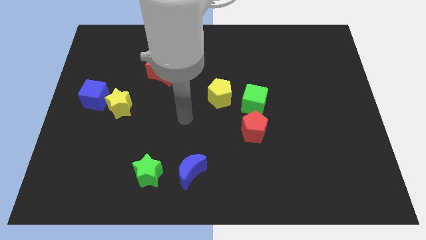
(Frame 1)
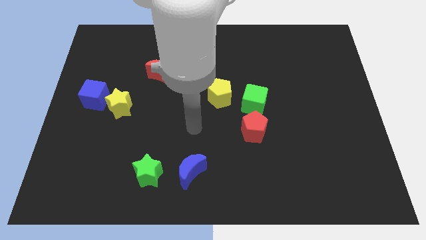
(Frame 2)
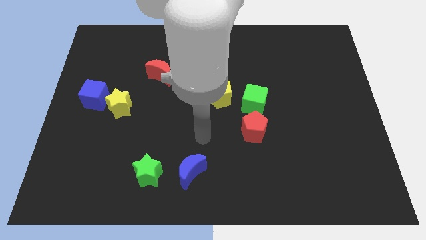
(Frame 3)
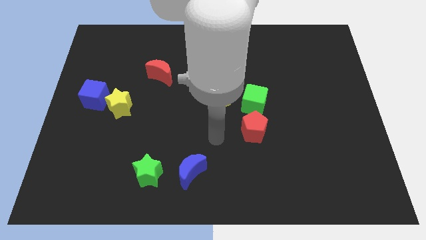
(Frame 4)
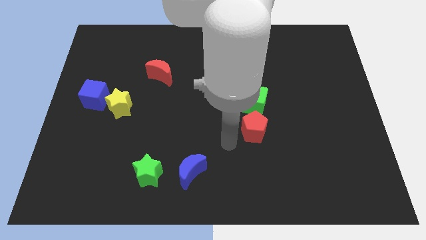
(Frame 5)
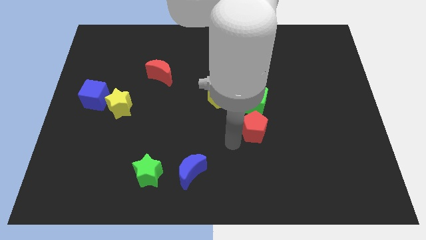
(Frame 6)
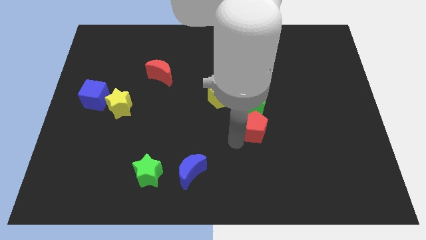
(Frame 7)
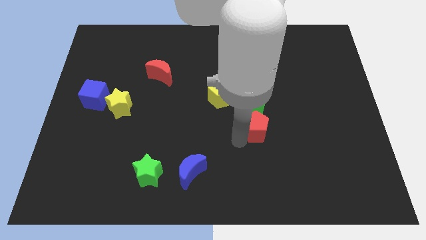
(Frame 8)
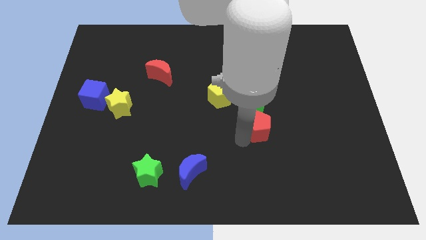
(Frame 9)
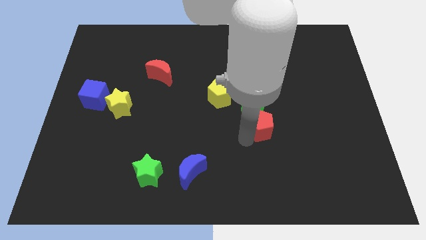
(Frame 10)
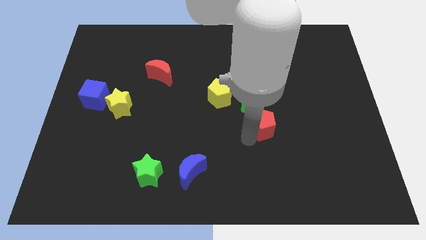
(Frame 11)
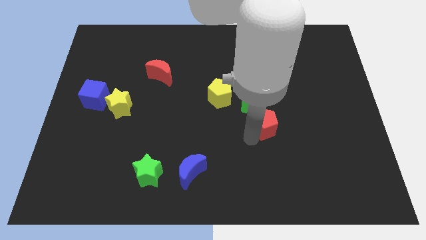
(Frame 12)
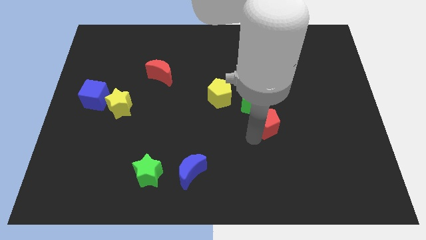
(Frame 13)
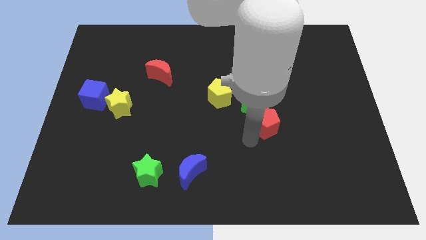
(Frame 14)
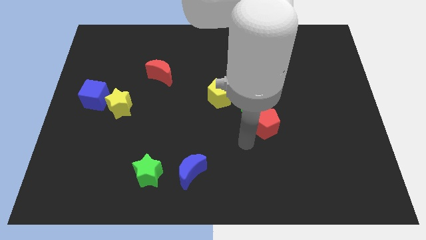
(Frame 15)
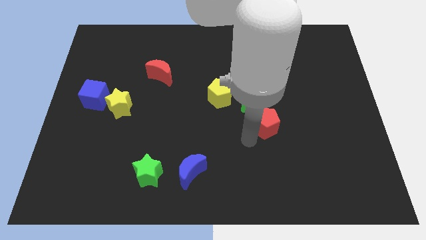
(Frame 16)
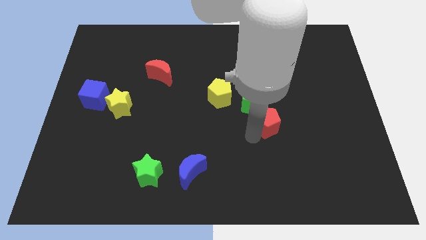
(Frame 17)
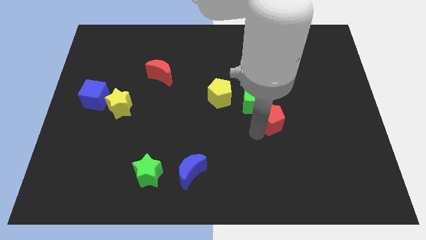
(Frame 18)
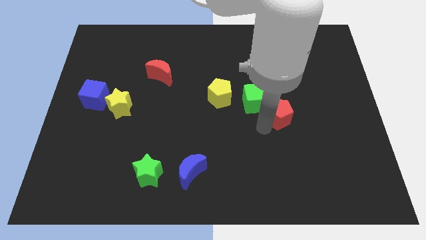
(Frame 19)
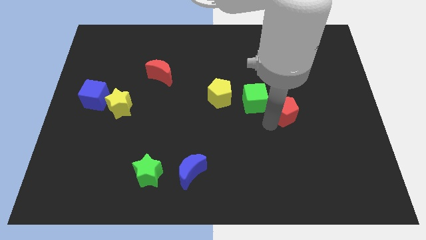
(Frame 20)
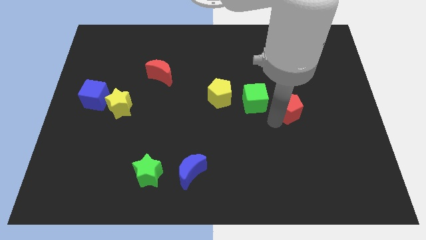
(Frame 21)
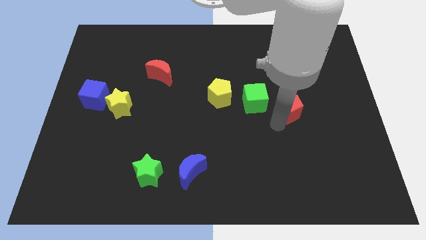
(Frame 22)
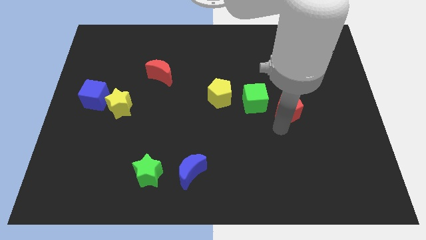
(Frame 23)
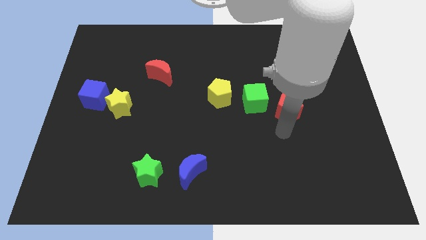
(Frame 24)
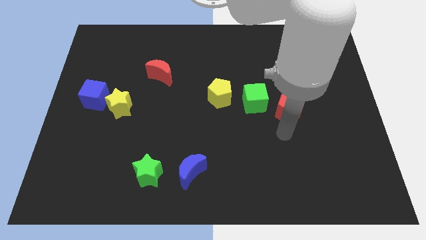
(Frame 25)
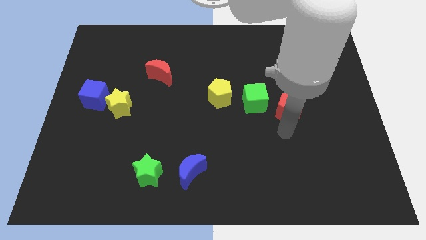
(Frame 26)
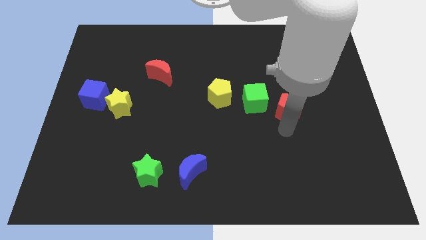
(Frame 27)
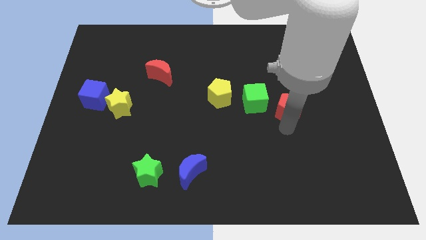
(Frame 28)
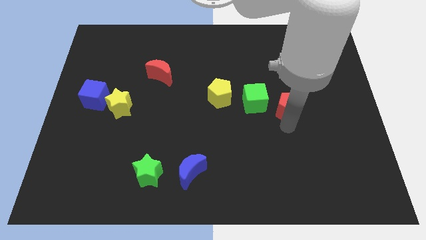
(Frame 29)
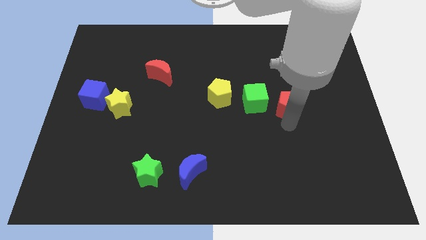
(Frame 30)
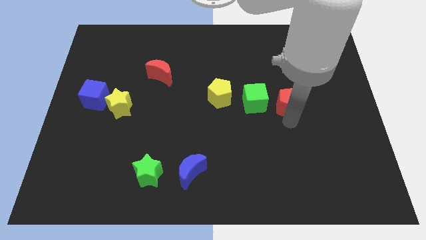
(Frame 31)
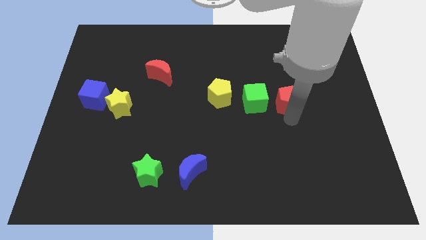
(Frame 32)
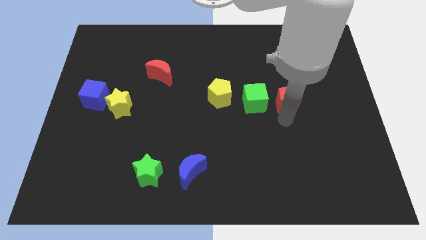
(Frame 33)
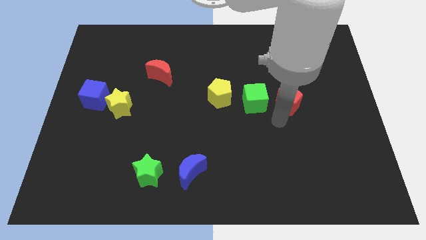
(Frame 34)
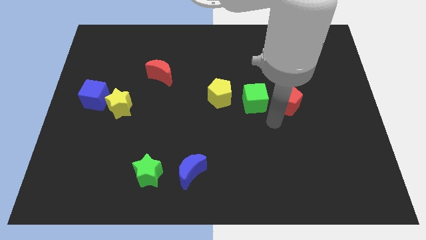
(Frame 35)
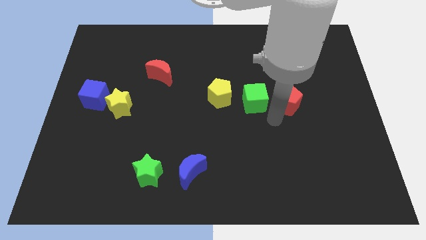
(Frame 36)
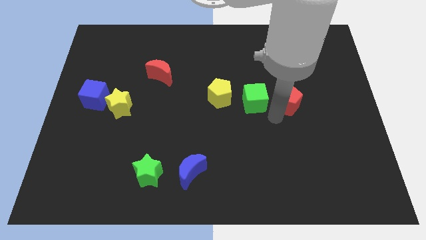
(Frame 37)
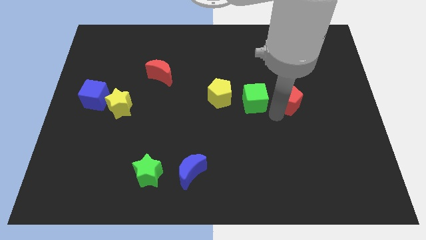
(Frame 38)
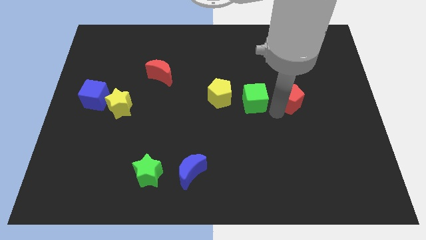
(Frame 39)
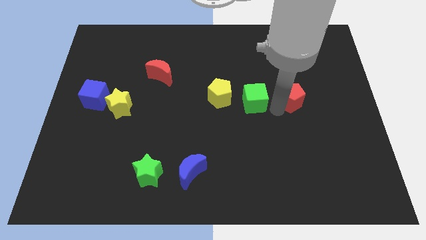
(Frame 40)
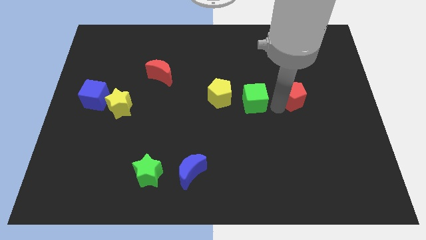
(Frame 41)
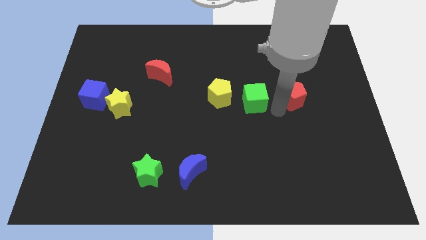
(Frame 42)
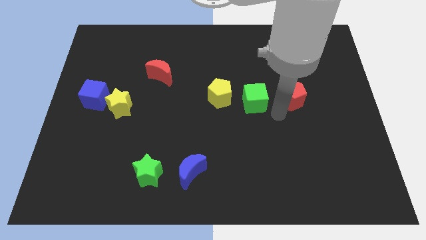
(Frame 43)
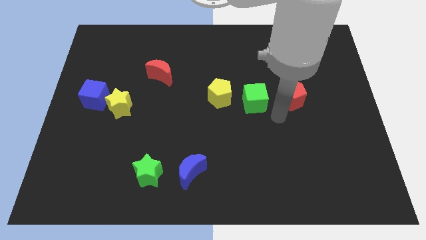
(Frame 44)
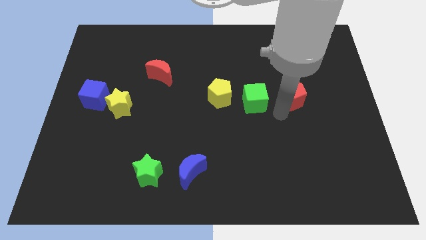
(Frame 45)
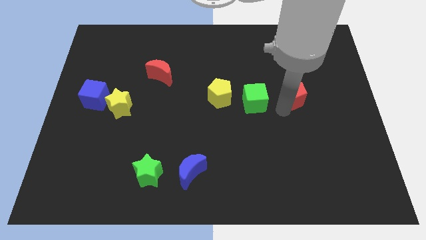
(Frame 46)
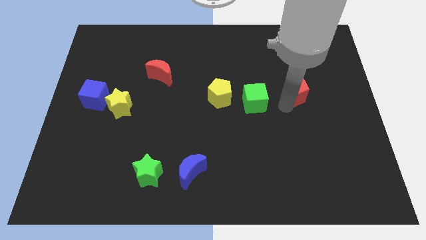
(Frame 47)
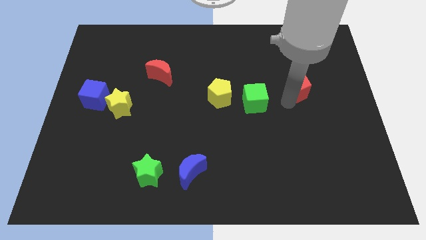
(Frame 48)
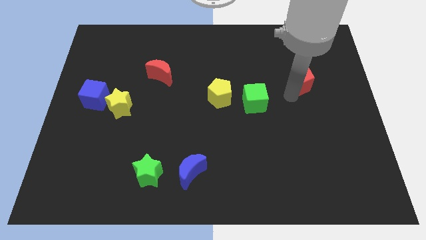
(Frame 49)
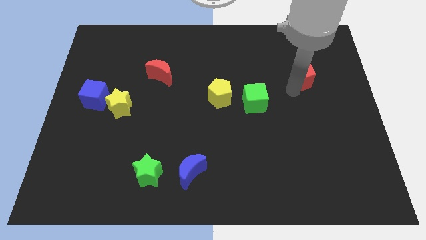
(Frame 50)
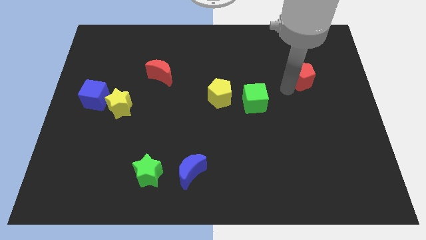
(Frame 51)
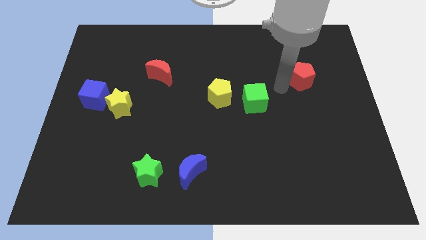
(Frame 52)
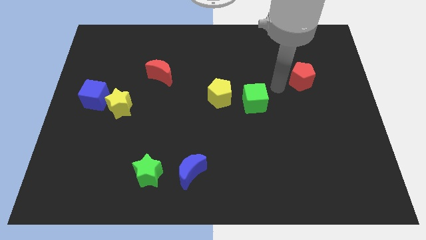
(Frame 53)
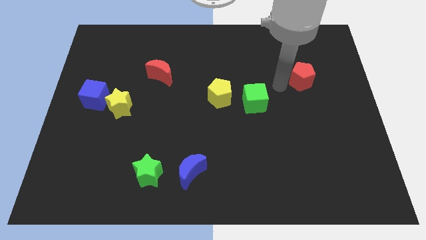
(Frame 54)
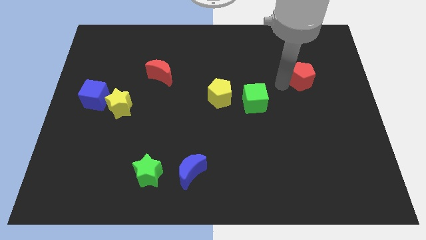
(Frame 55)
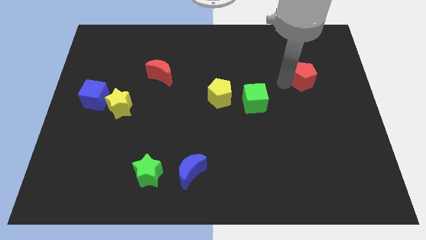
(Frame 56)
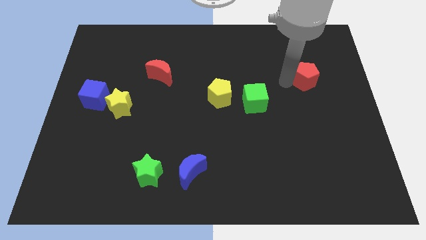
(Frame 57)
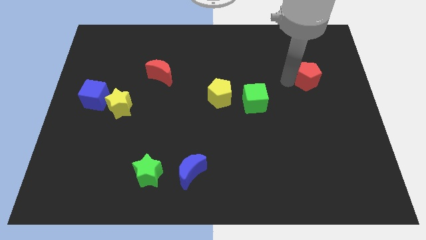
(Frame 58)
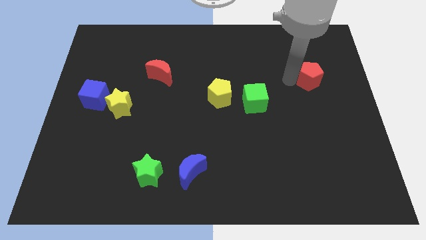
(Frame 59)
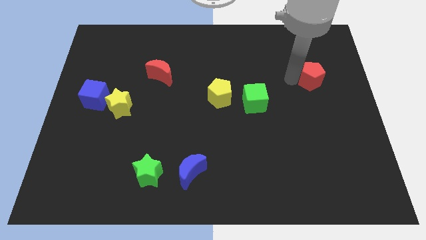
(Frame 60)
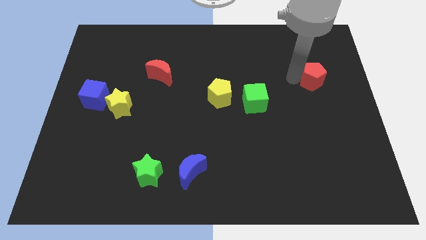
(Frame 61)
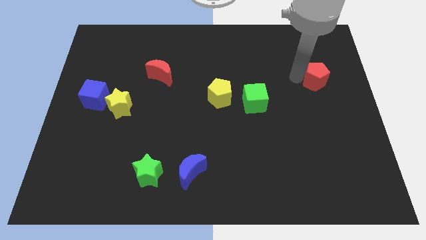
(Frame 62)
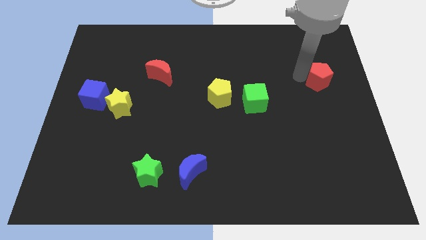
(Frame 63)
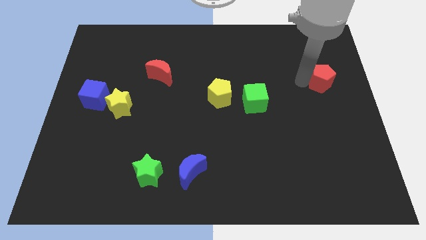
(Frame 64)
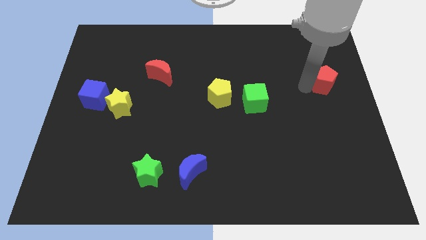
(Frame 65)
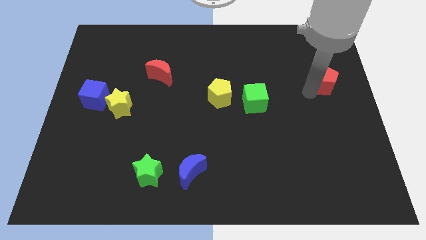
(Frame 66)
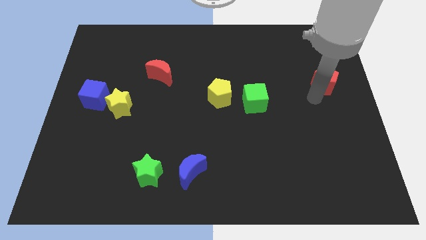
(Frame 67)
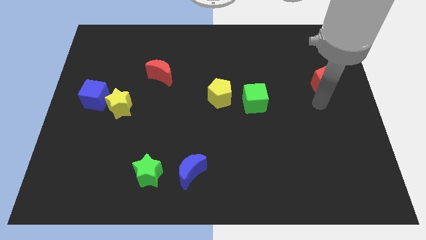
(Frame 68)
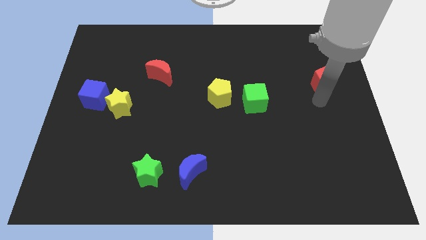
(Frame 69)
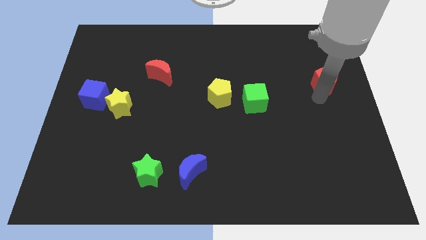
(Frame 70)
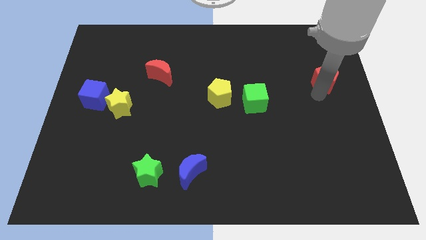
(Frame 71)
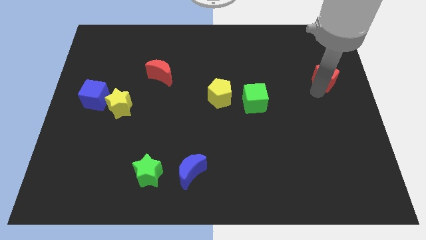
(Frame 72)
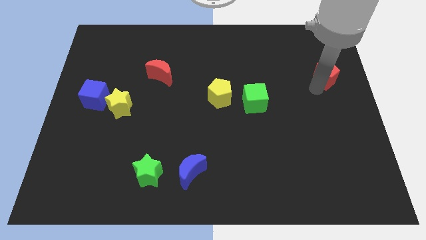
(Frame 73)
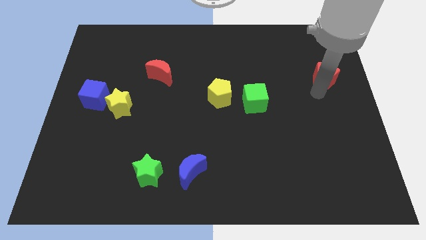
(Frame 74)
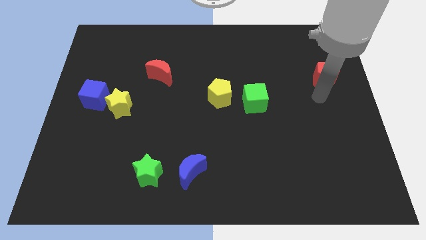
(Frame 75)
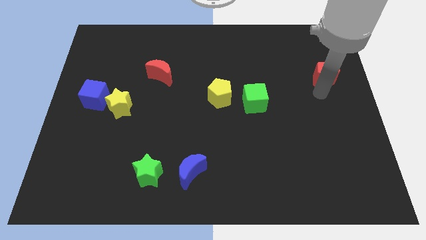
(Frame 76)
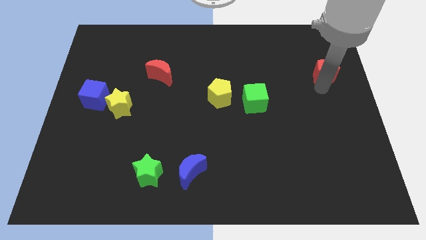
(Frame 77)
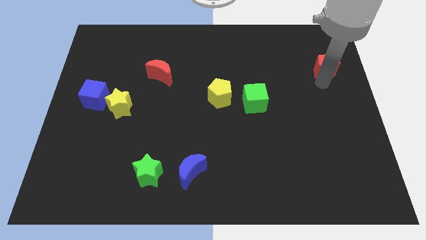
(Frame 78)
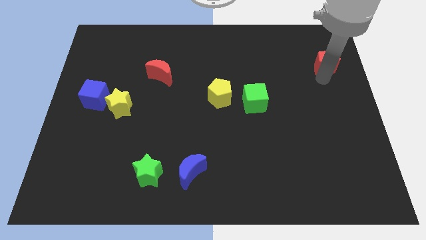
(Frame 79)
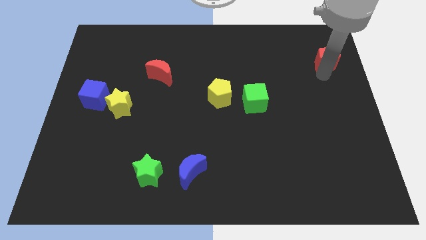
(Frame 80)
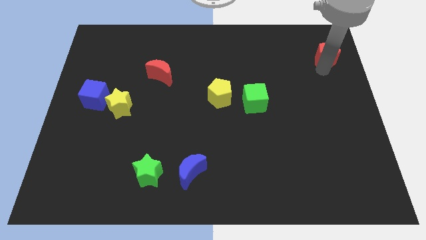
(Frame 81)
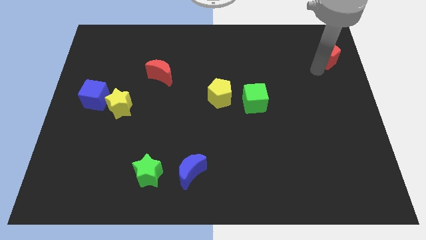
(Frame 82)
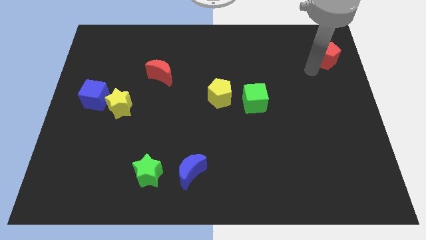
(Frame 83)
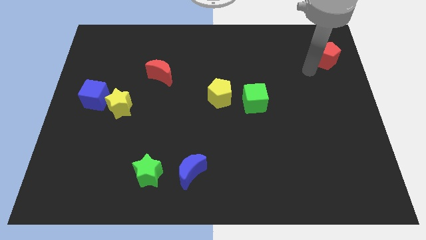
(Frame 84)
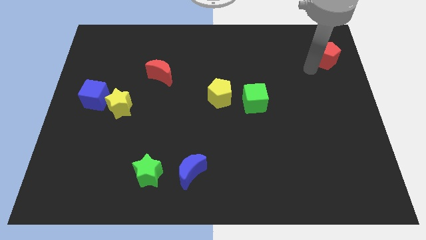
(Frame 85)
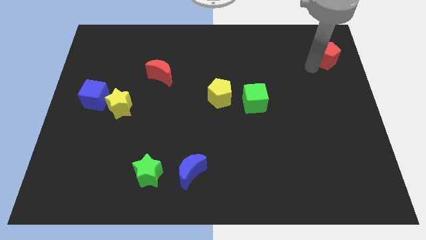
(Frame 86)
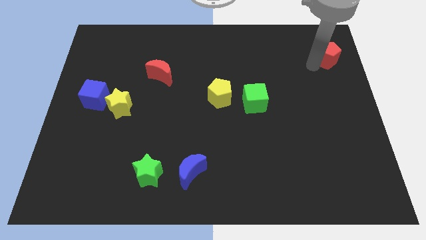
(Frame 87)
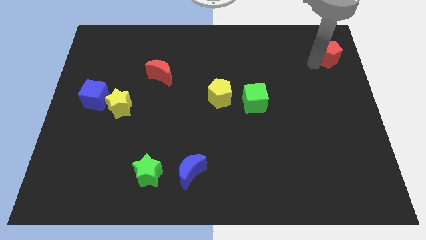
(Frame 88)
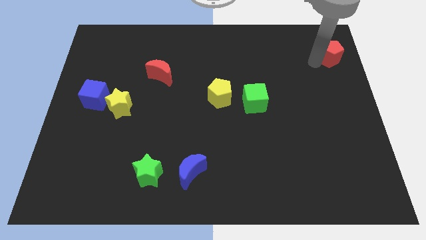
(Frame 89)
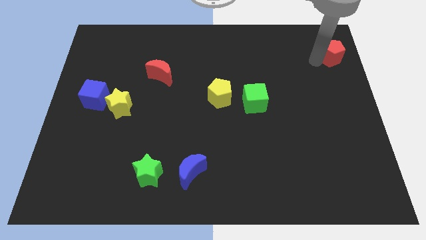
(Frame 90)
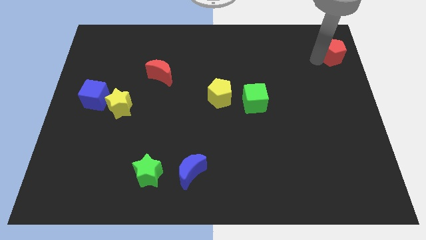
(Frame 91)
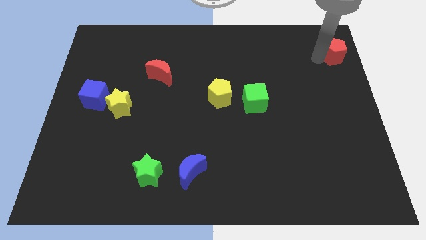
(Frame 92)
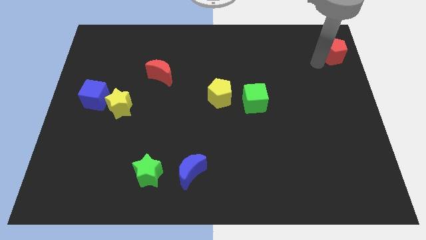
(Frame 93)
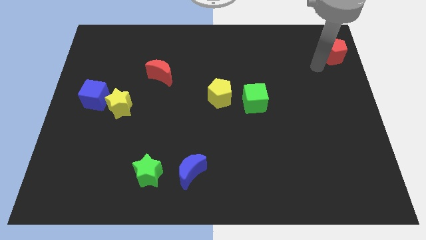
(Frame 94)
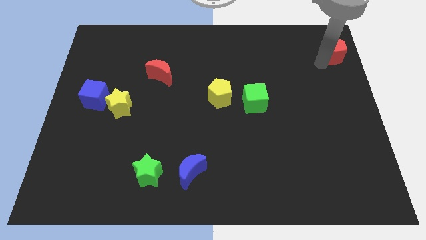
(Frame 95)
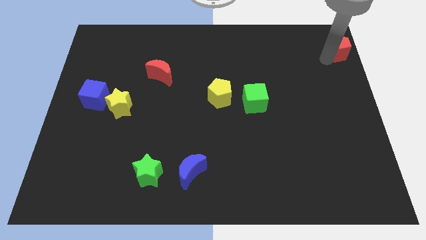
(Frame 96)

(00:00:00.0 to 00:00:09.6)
slide the red pentagon to the top right corner
